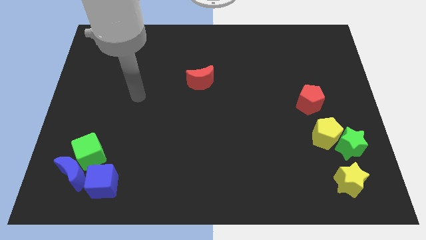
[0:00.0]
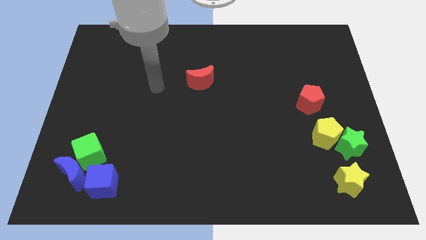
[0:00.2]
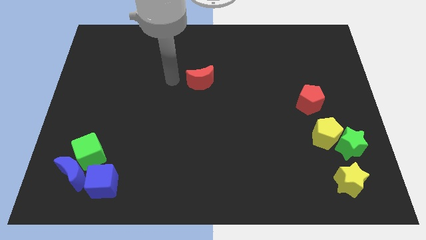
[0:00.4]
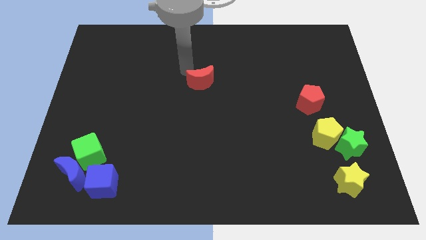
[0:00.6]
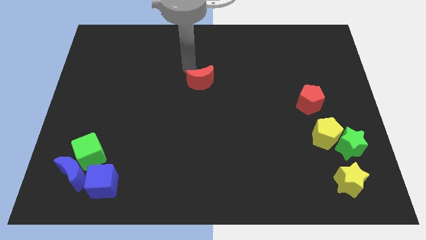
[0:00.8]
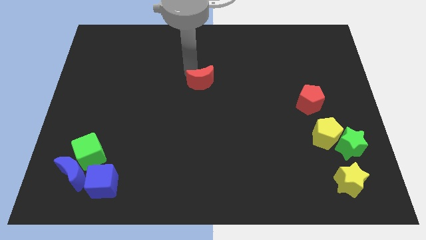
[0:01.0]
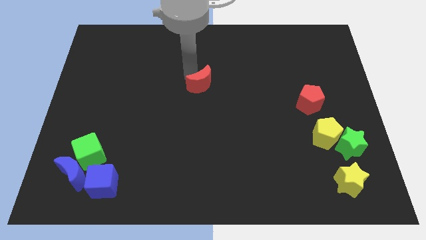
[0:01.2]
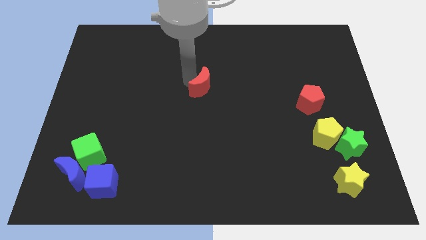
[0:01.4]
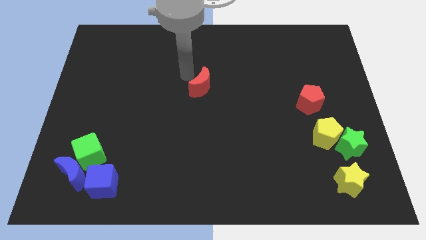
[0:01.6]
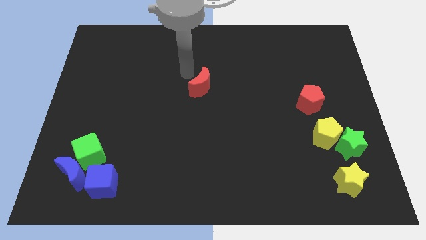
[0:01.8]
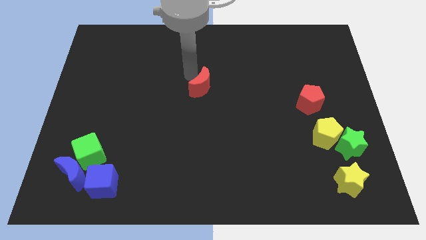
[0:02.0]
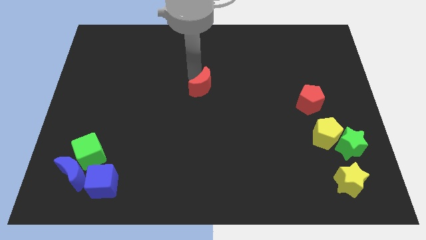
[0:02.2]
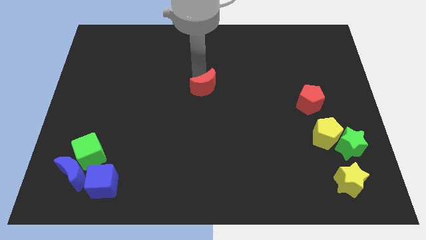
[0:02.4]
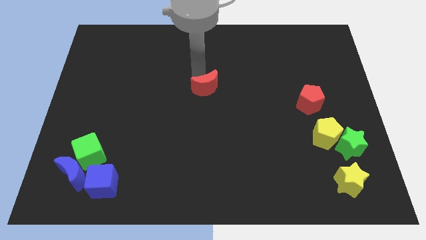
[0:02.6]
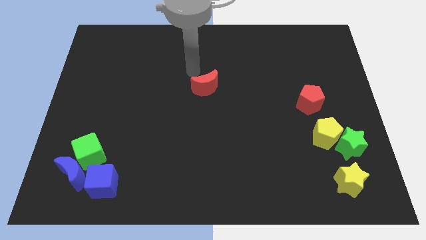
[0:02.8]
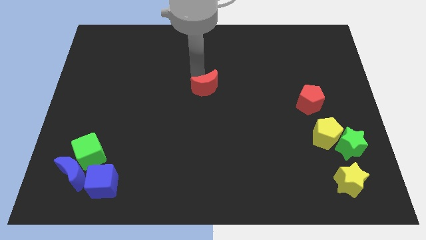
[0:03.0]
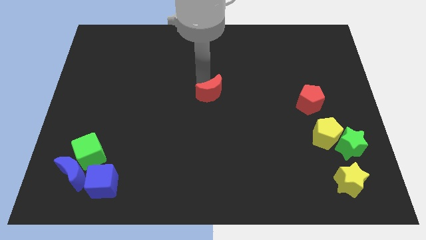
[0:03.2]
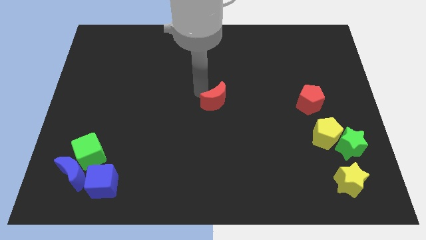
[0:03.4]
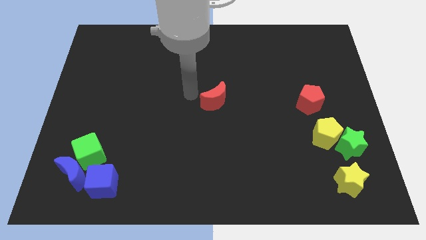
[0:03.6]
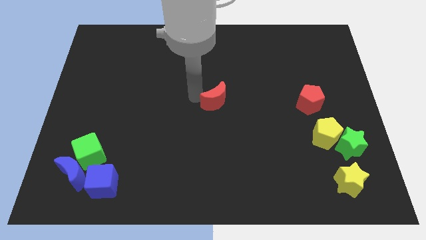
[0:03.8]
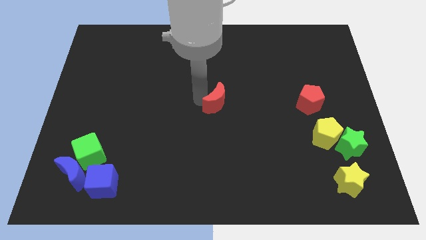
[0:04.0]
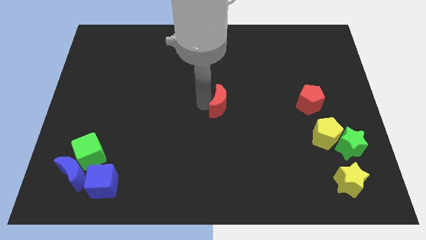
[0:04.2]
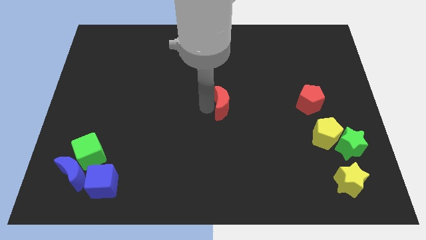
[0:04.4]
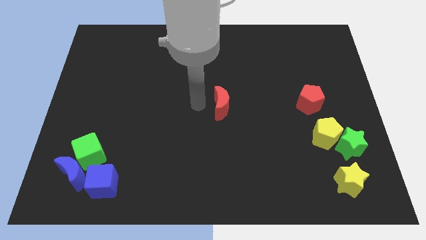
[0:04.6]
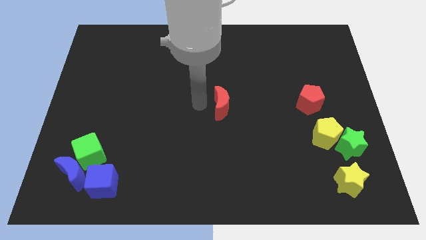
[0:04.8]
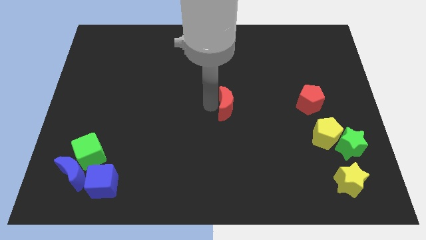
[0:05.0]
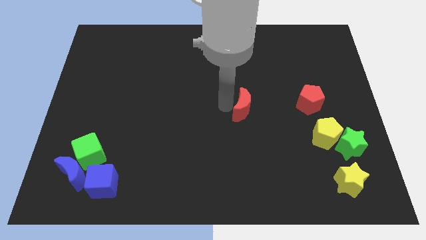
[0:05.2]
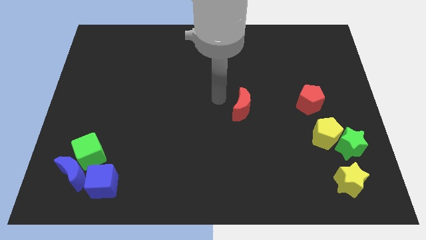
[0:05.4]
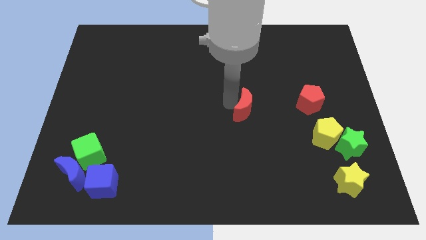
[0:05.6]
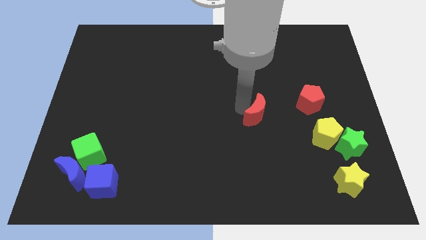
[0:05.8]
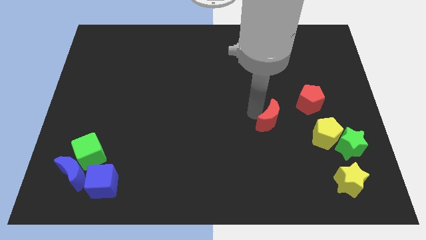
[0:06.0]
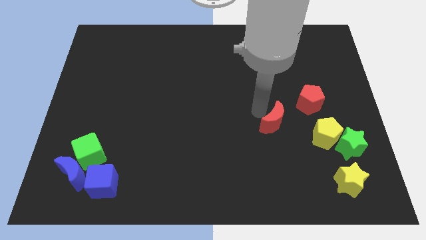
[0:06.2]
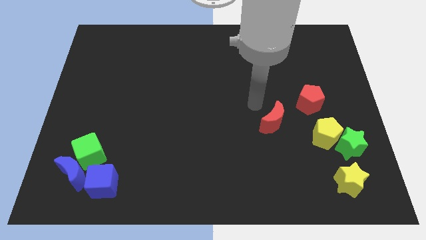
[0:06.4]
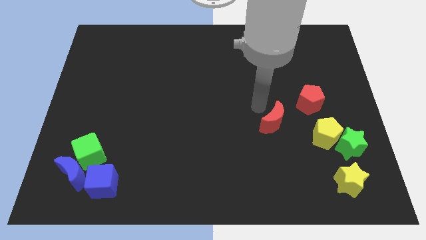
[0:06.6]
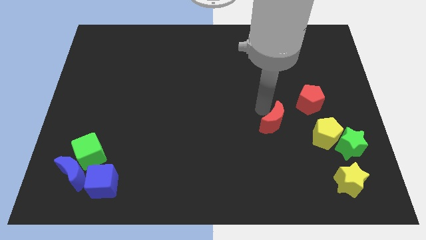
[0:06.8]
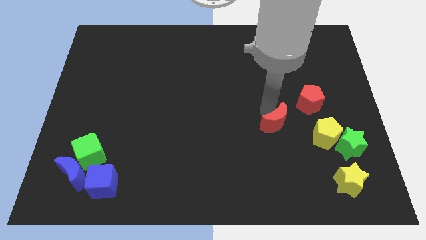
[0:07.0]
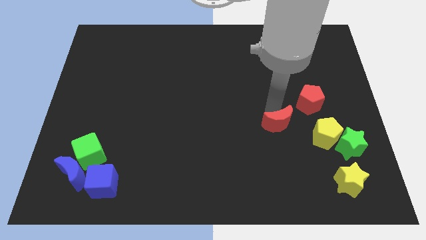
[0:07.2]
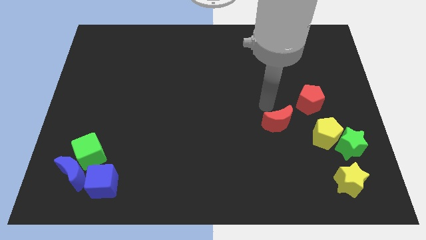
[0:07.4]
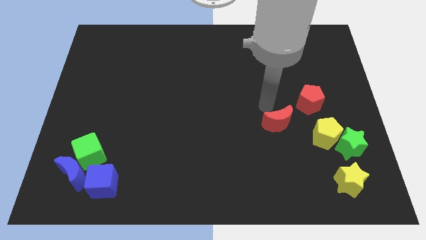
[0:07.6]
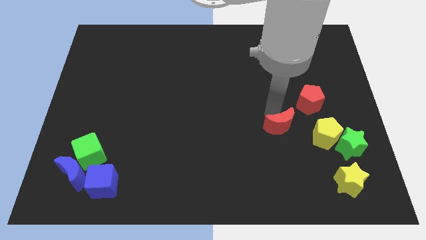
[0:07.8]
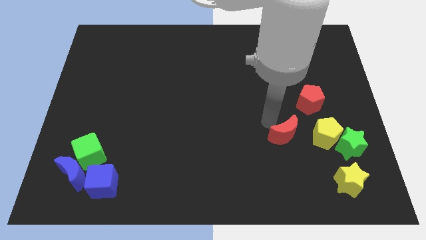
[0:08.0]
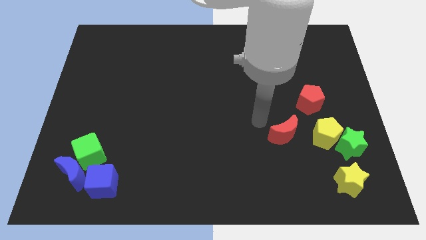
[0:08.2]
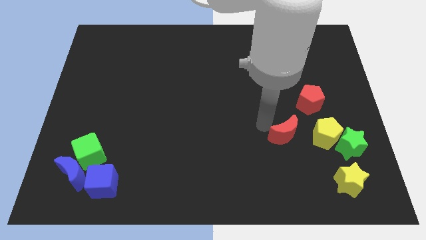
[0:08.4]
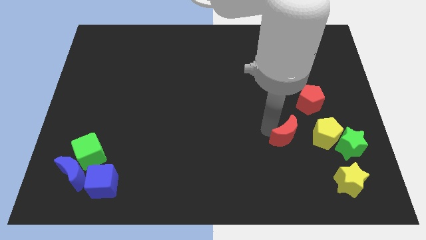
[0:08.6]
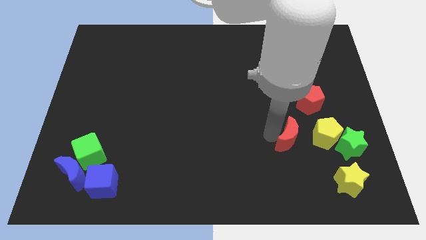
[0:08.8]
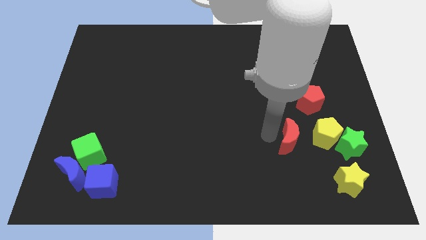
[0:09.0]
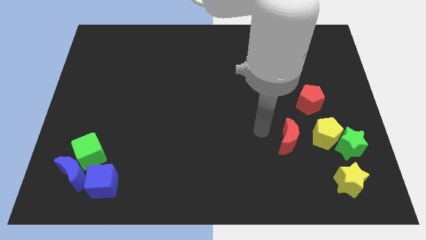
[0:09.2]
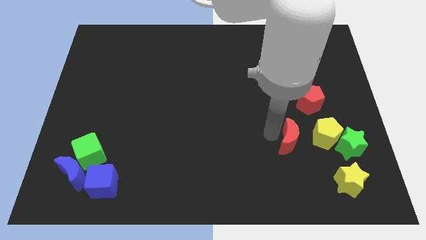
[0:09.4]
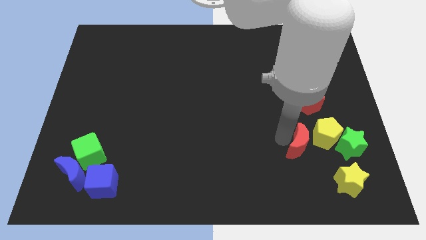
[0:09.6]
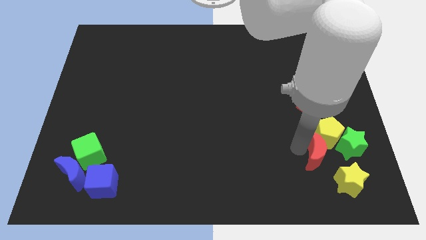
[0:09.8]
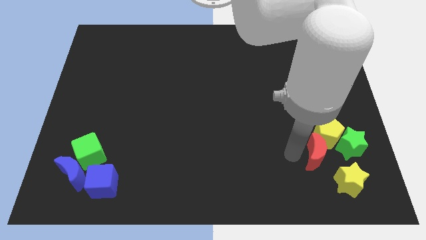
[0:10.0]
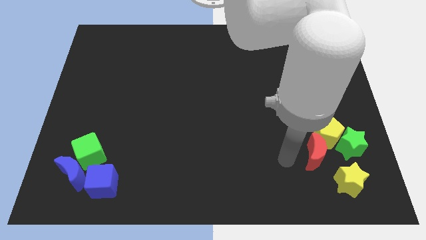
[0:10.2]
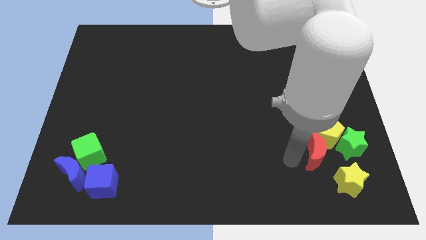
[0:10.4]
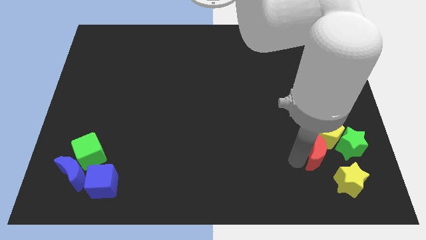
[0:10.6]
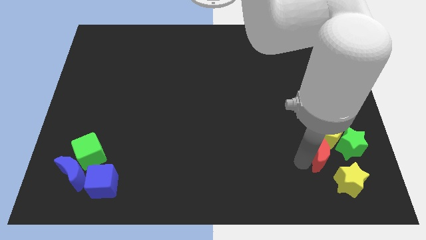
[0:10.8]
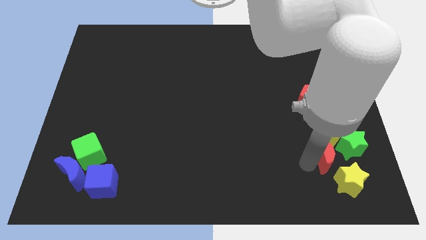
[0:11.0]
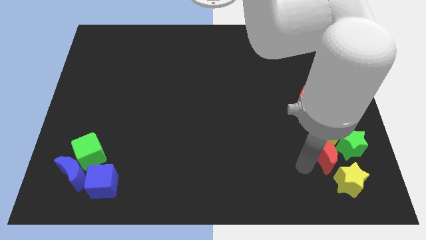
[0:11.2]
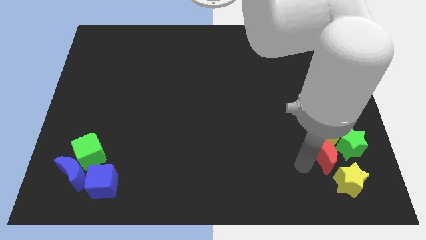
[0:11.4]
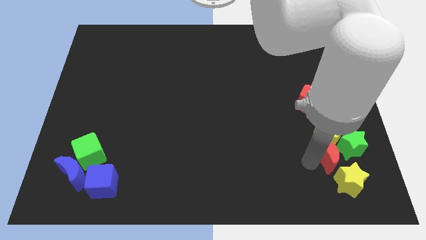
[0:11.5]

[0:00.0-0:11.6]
move the red moon to the green star

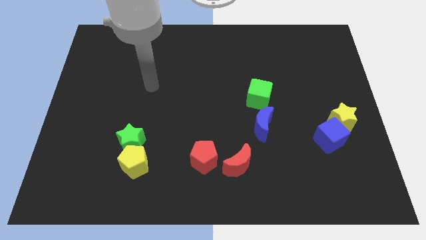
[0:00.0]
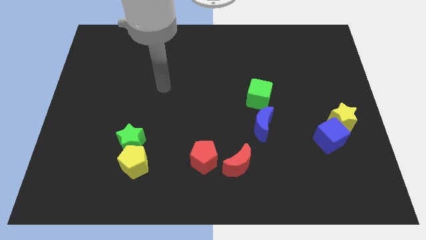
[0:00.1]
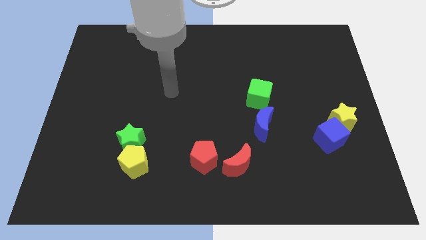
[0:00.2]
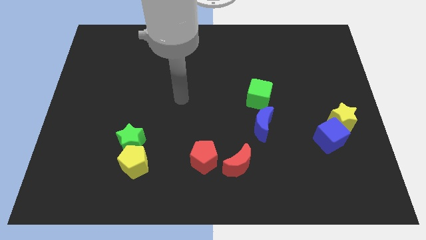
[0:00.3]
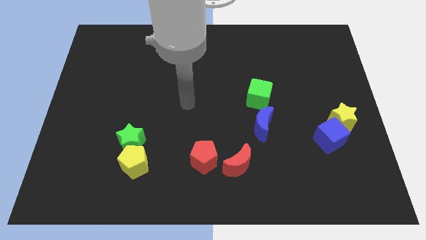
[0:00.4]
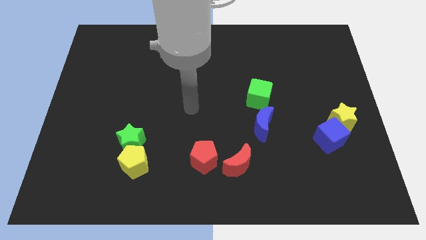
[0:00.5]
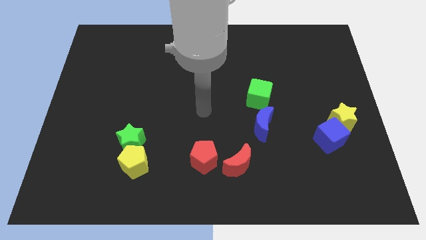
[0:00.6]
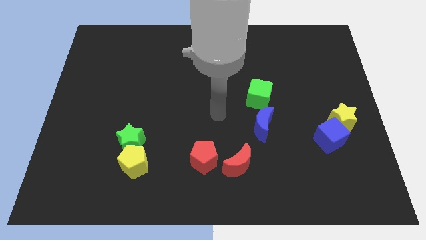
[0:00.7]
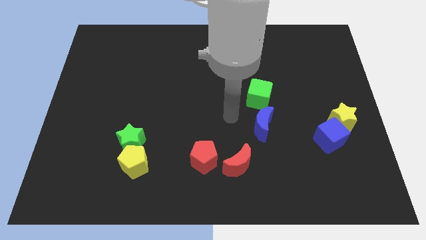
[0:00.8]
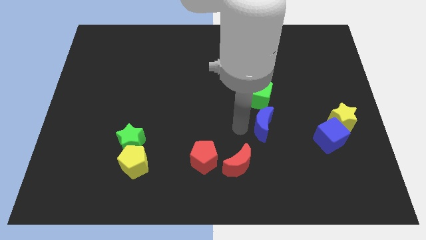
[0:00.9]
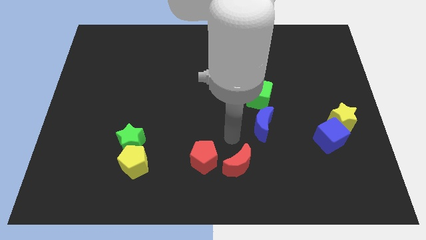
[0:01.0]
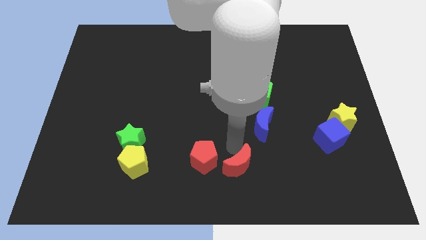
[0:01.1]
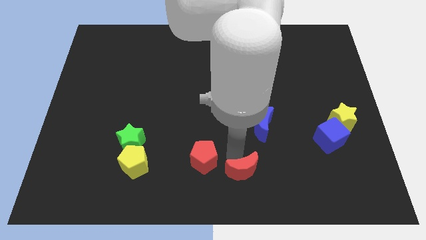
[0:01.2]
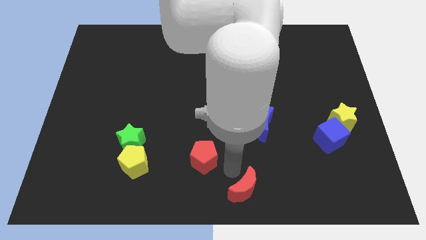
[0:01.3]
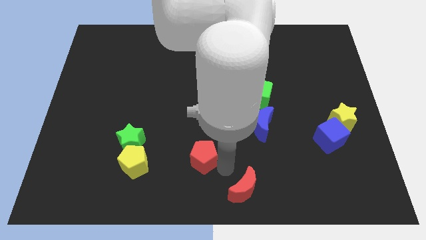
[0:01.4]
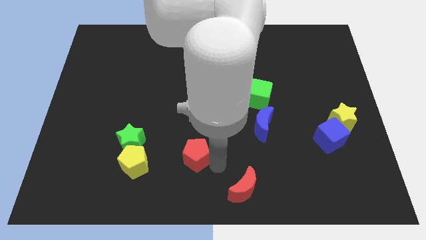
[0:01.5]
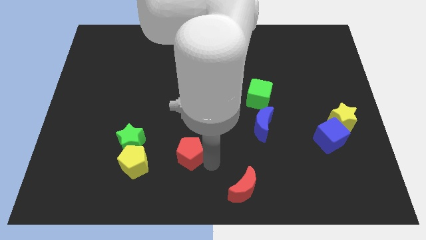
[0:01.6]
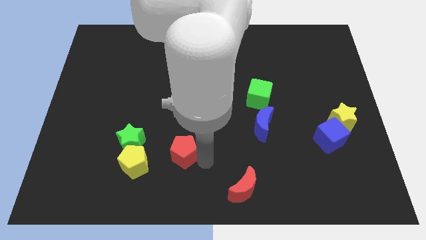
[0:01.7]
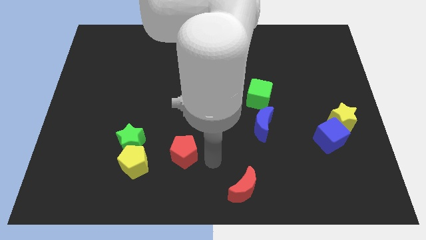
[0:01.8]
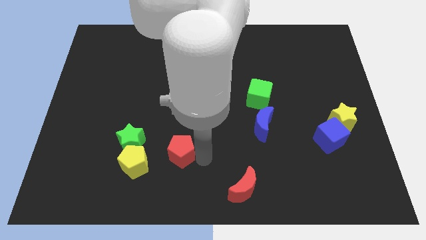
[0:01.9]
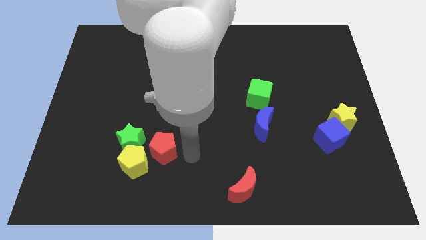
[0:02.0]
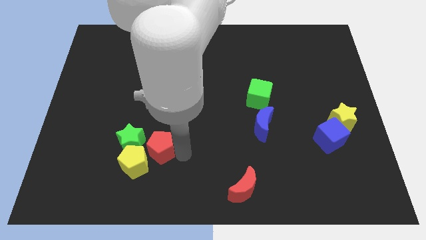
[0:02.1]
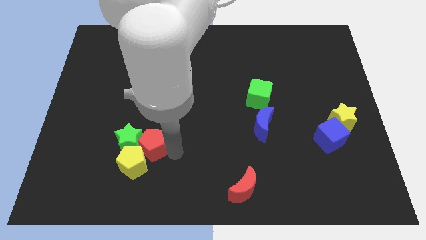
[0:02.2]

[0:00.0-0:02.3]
push the red pentagon to the green star

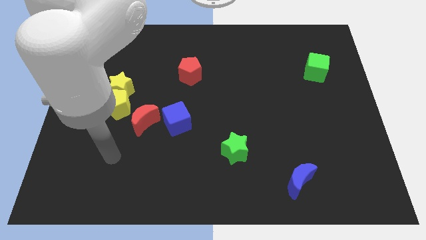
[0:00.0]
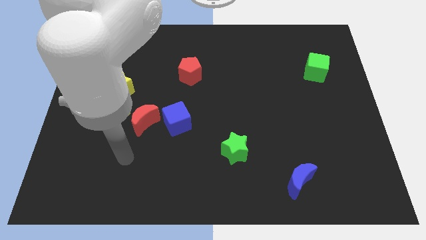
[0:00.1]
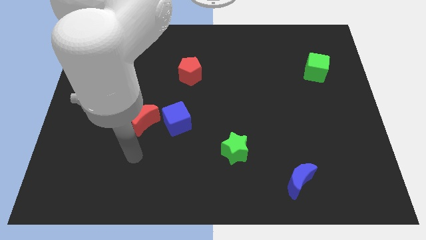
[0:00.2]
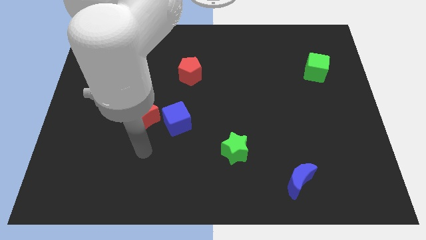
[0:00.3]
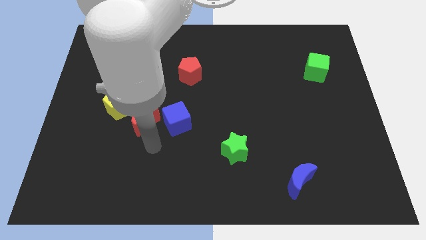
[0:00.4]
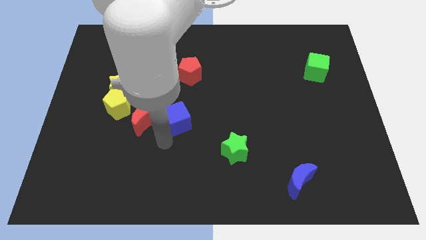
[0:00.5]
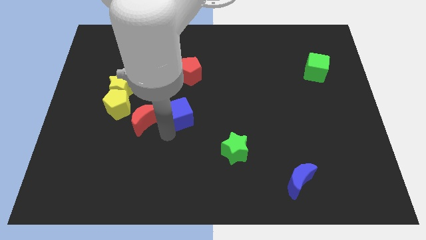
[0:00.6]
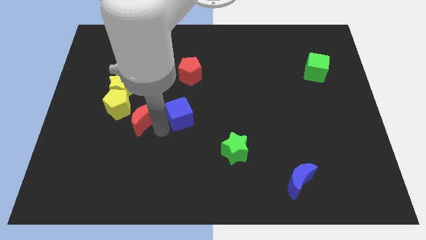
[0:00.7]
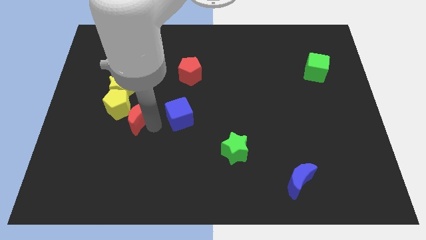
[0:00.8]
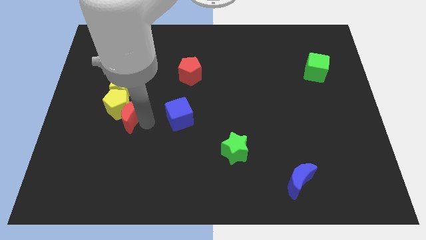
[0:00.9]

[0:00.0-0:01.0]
slide the red moon next to the yellow pentagon
